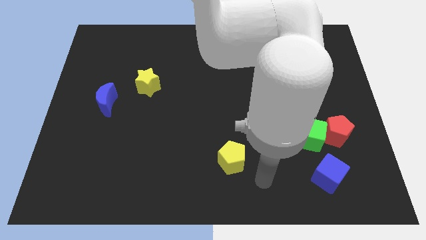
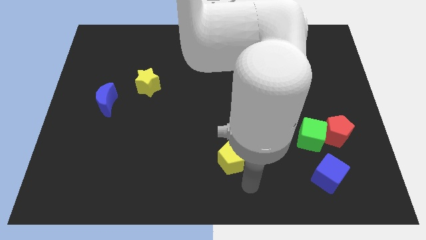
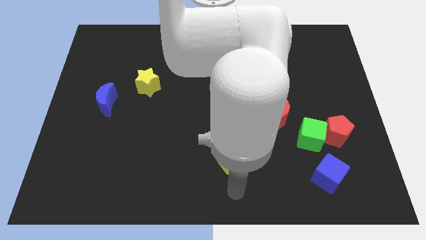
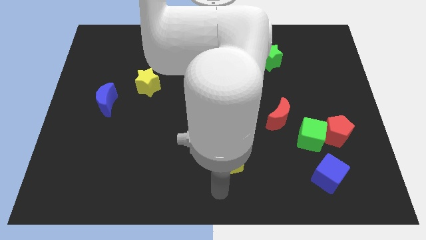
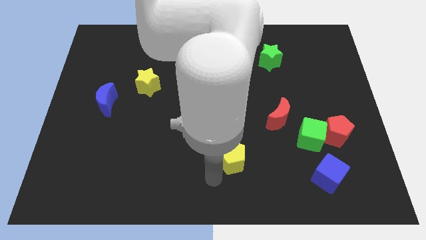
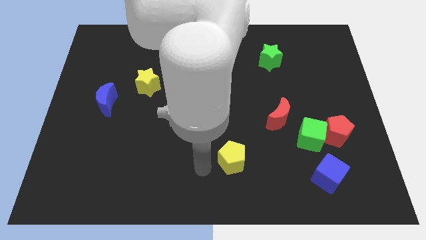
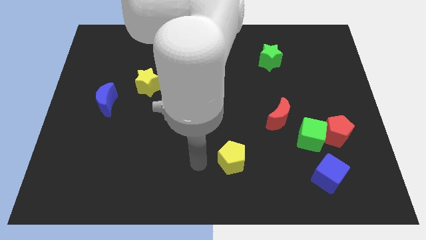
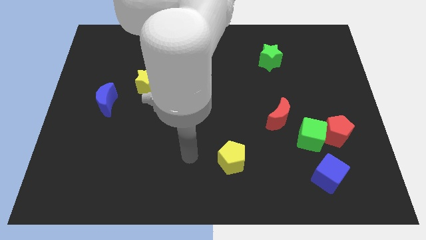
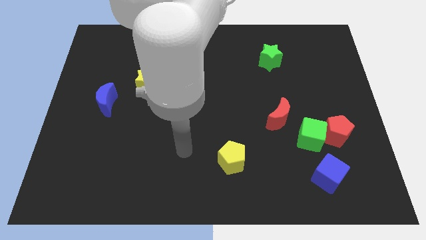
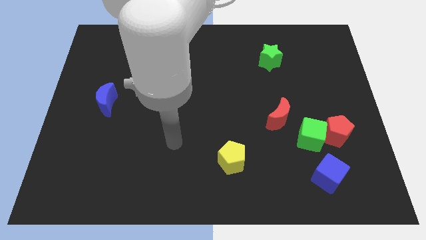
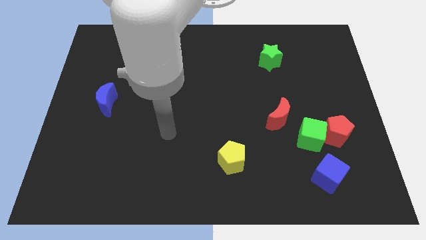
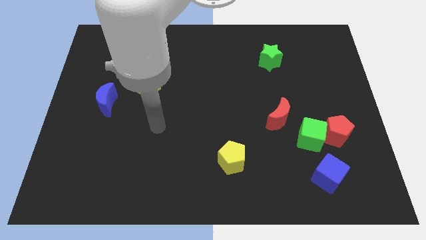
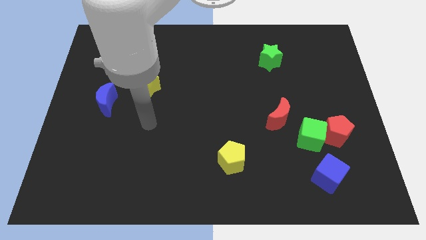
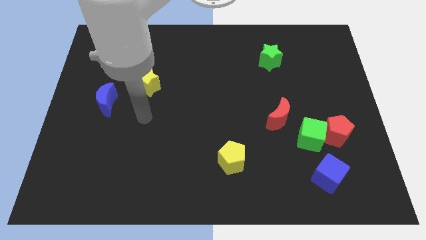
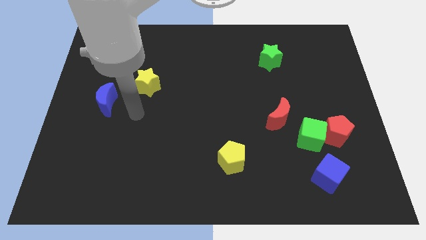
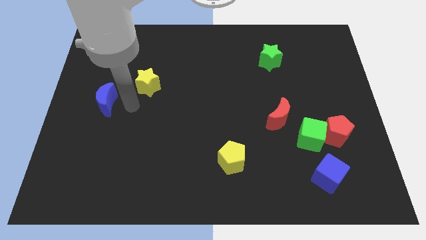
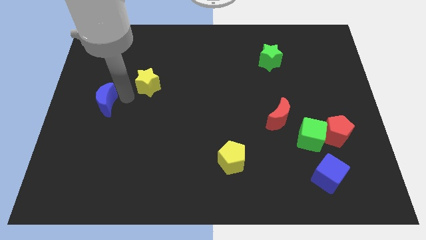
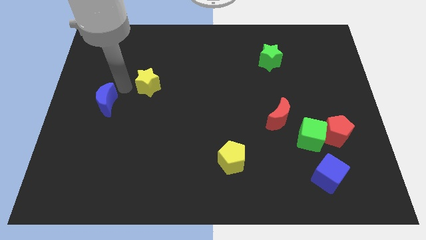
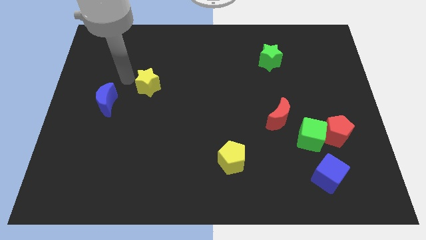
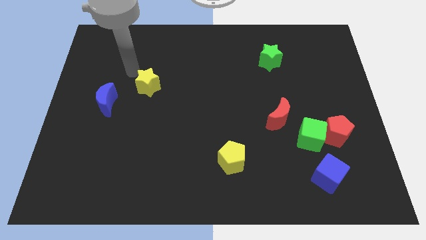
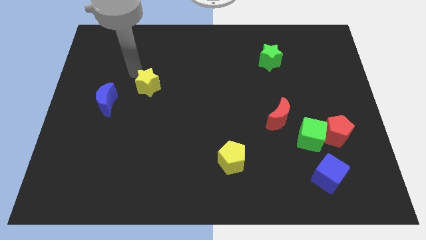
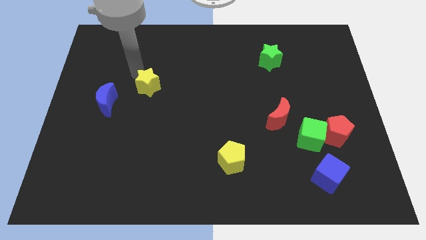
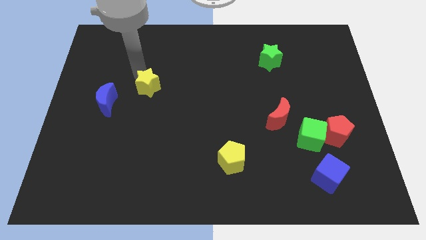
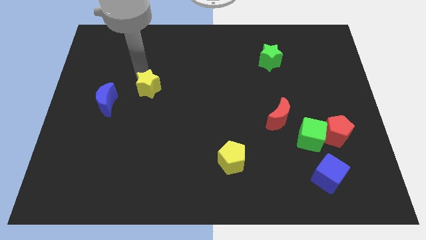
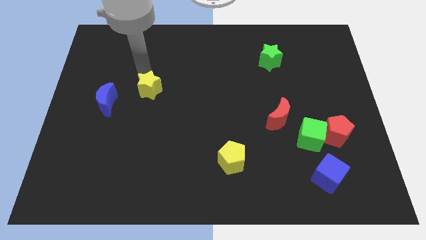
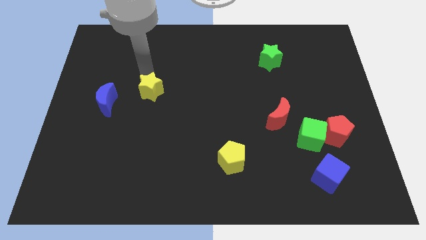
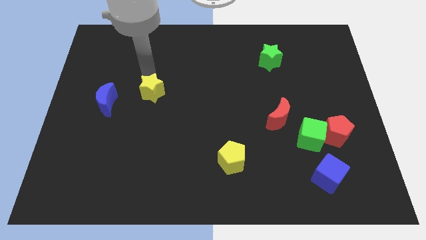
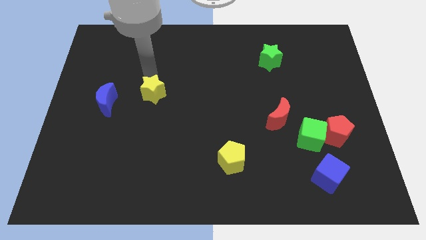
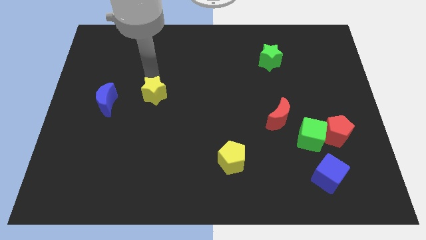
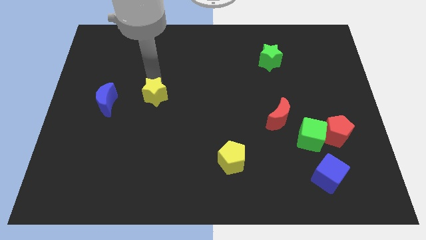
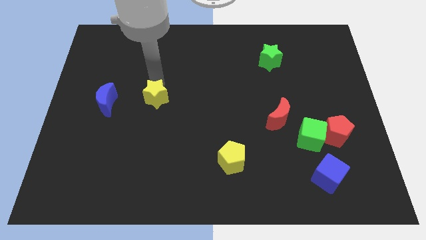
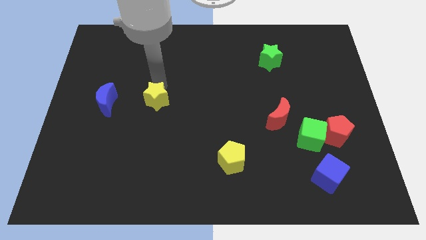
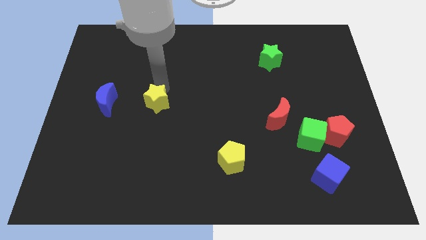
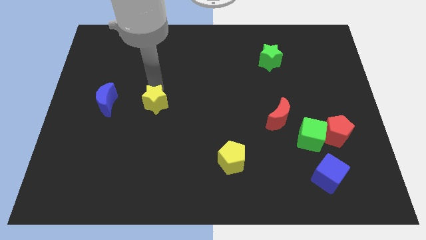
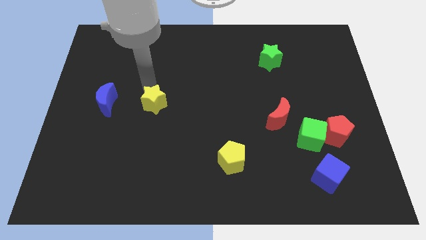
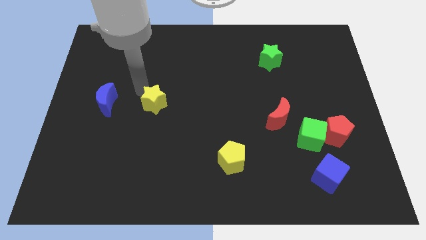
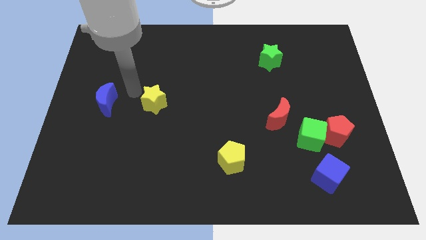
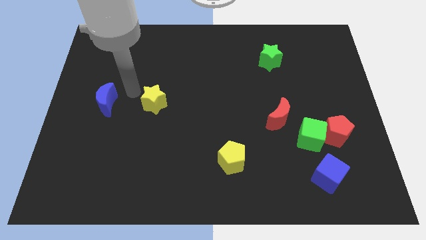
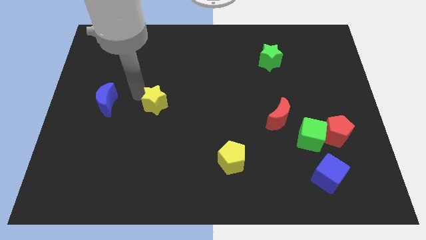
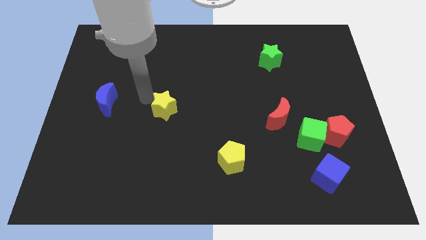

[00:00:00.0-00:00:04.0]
slide the yellow star a little downwards and then right

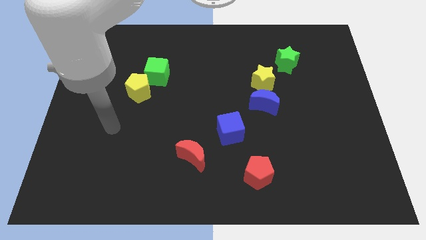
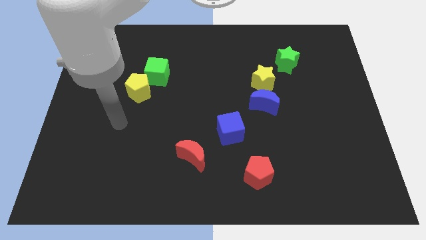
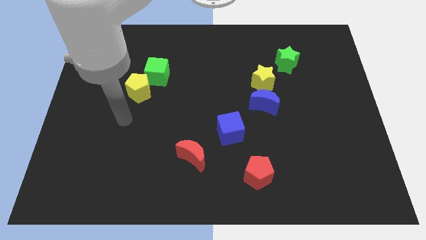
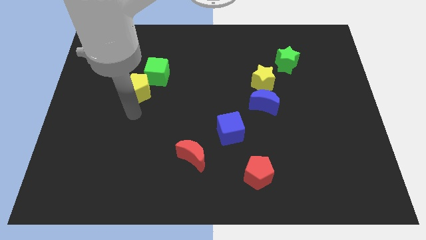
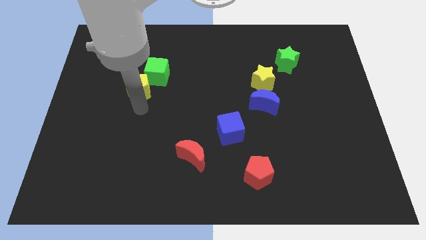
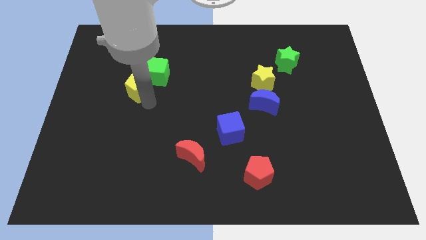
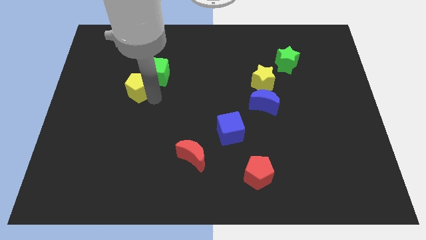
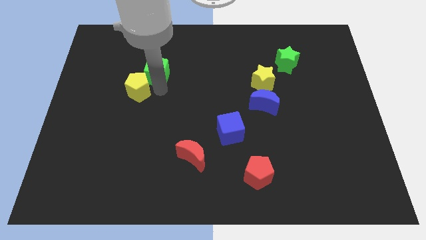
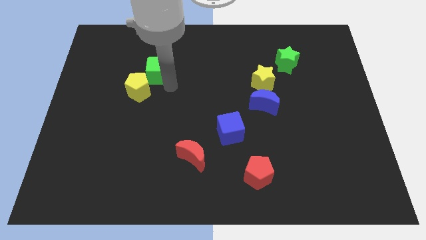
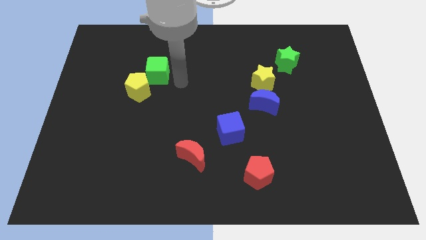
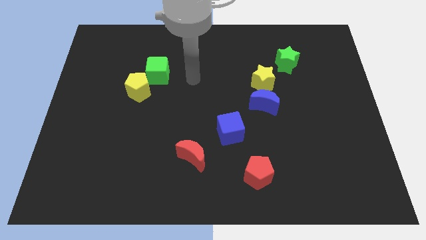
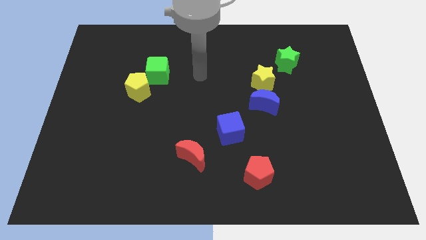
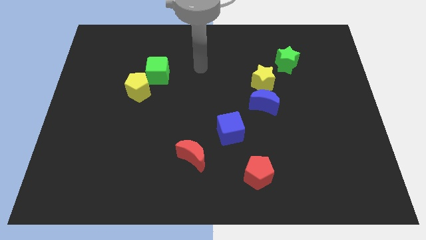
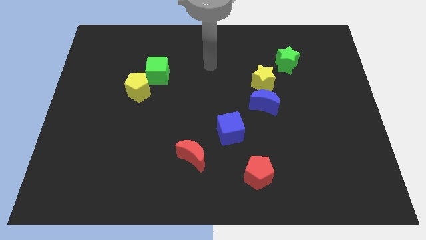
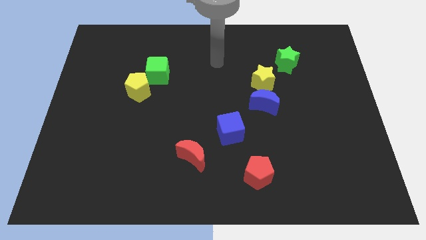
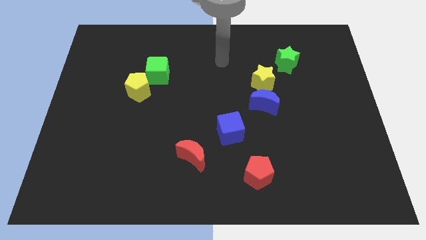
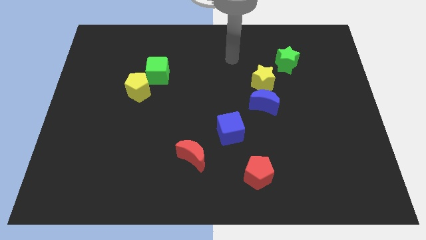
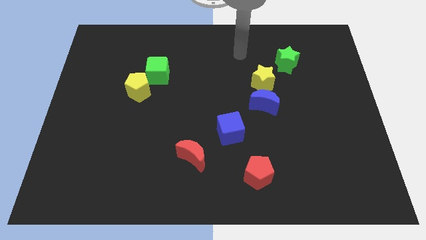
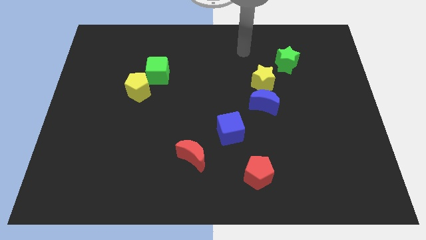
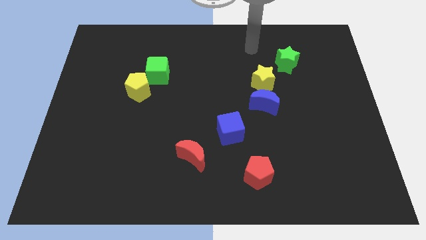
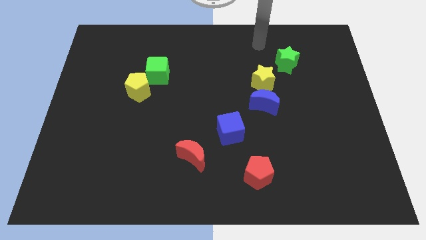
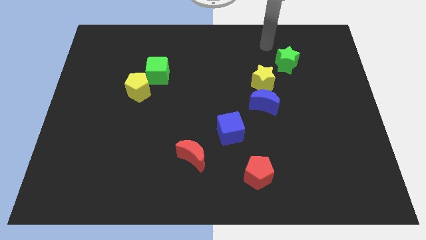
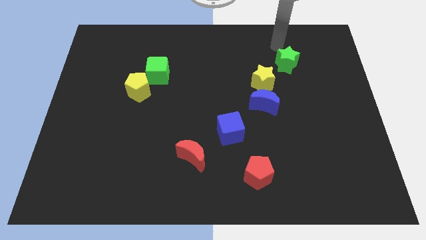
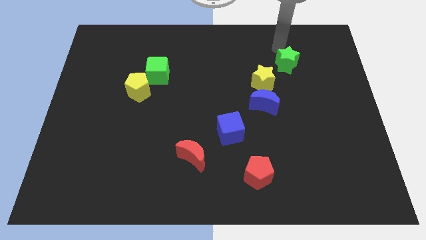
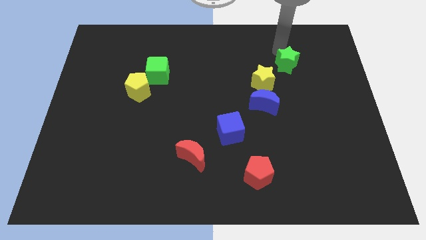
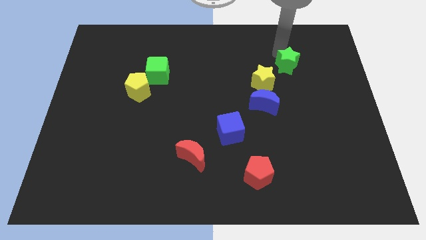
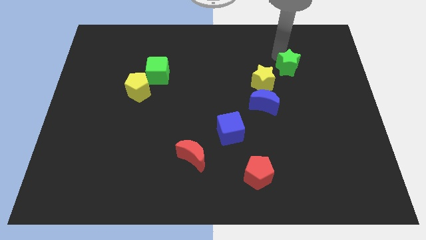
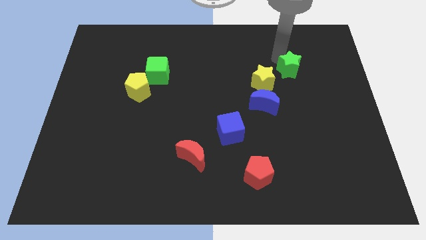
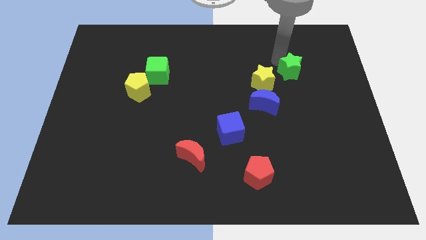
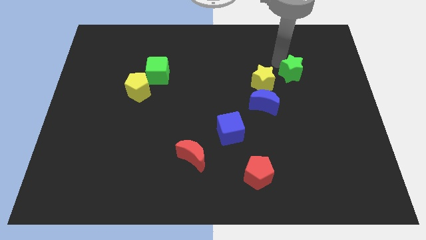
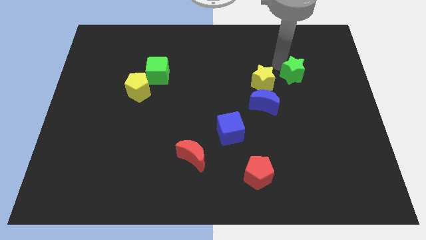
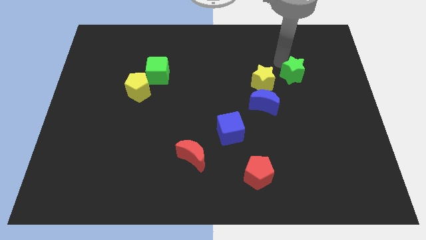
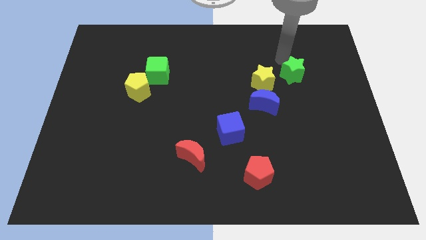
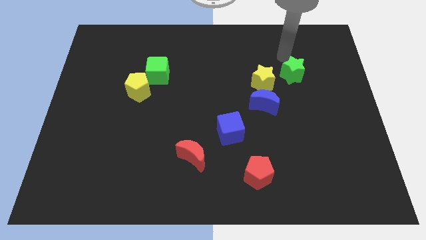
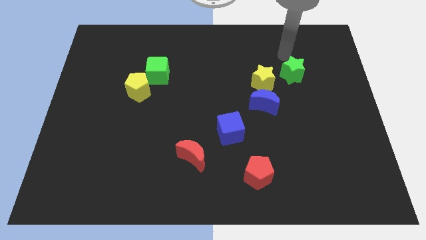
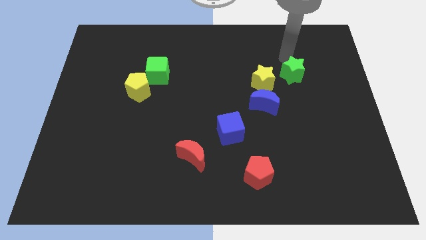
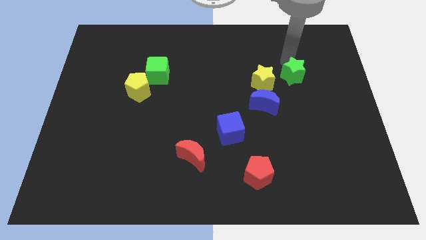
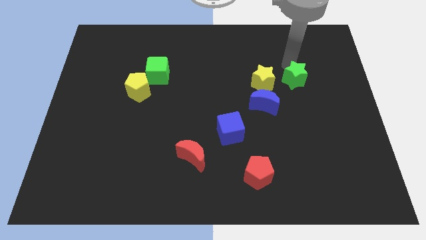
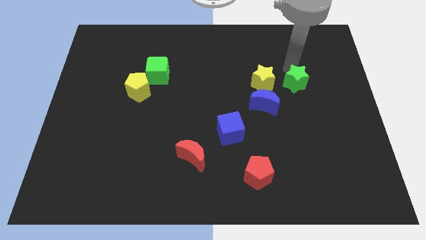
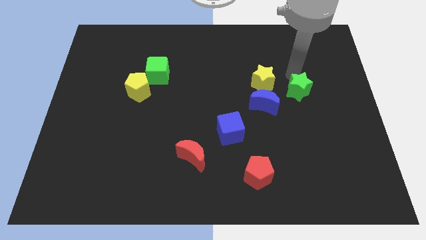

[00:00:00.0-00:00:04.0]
push the green star down somewhat
